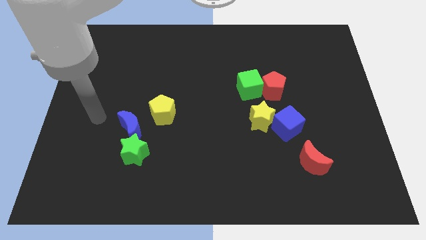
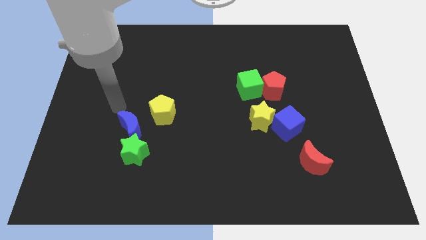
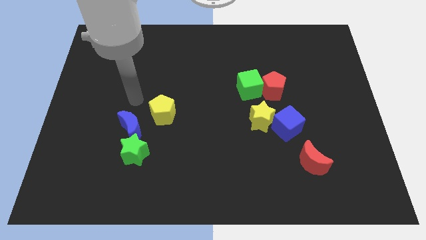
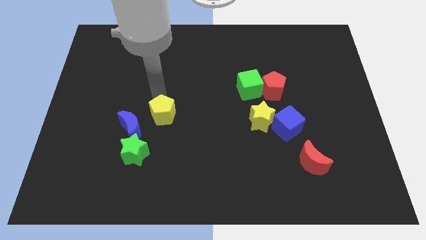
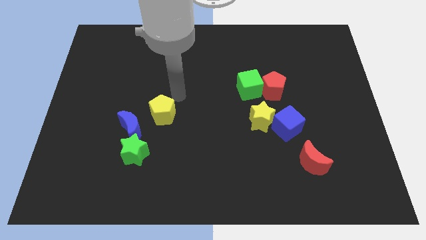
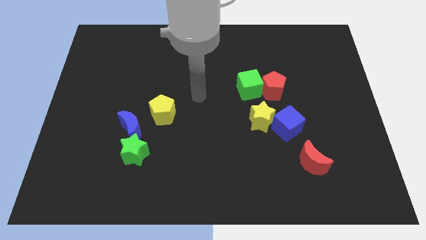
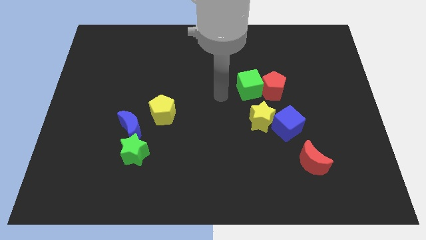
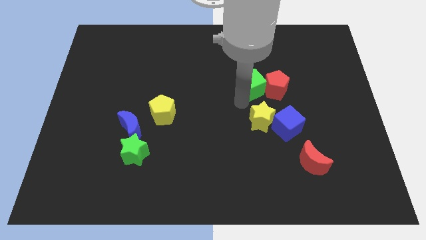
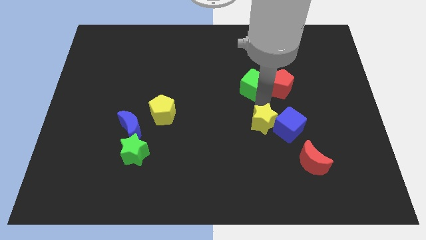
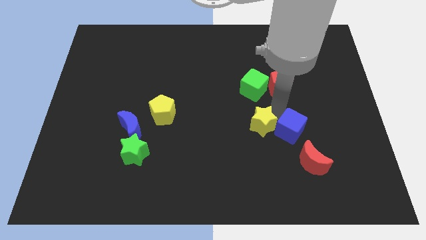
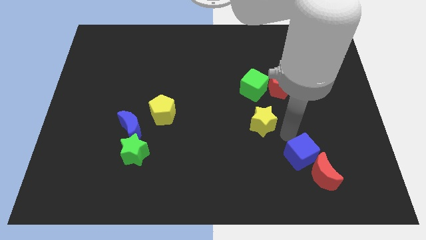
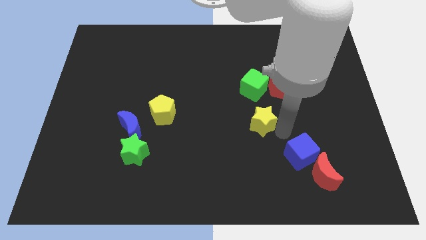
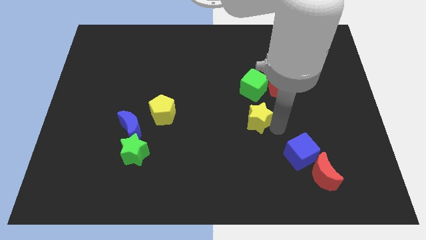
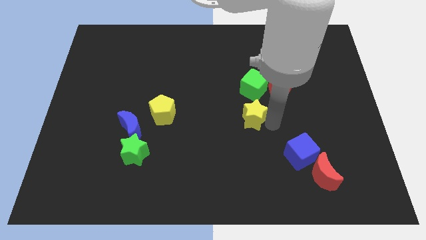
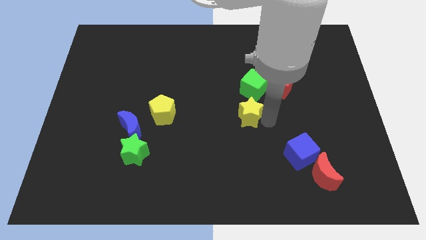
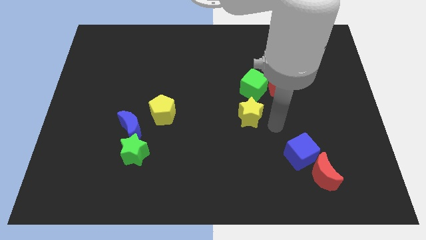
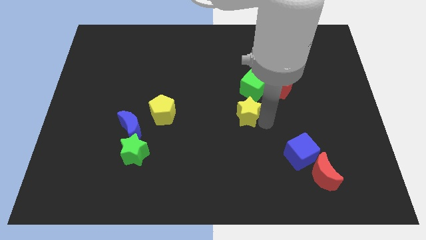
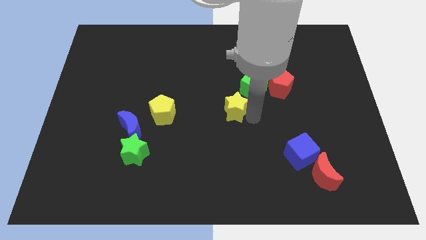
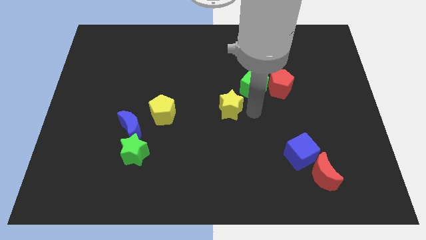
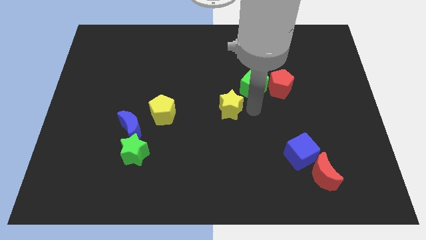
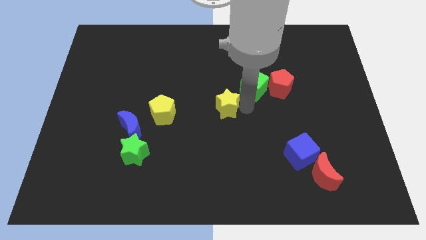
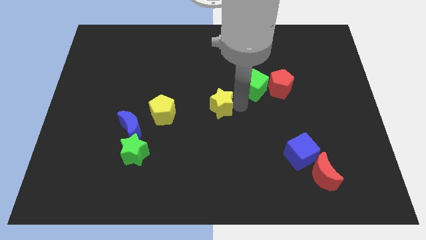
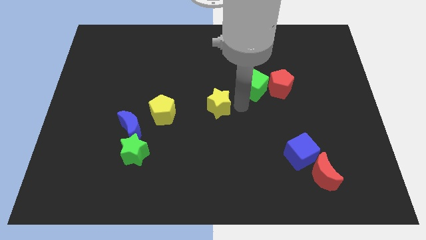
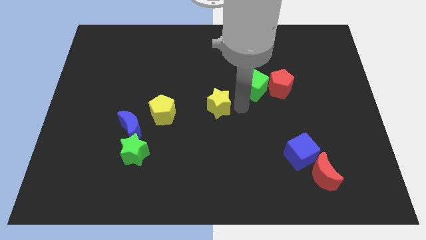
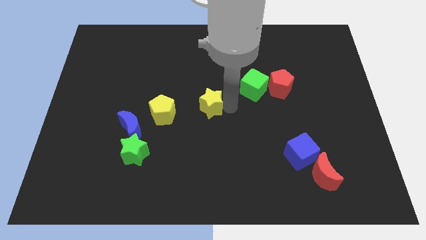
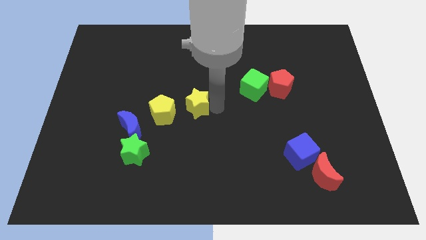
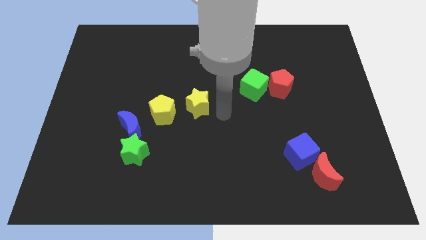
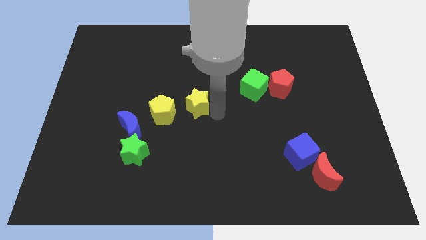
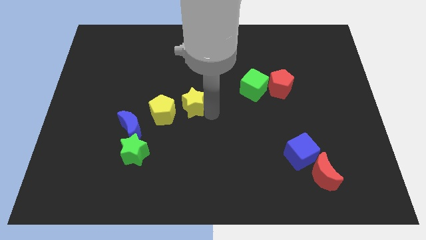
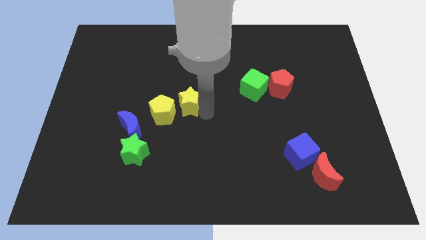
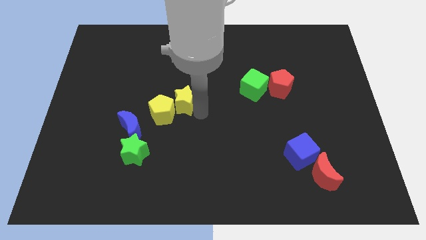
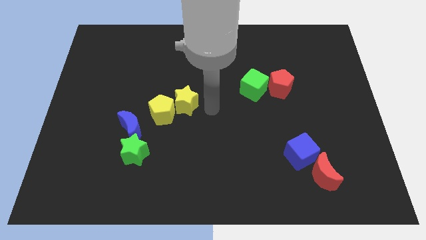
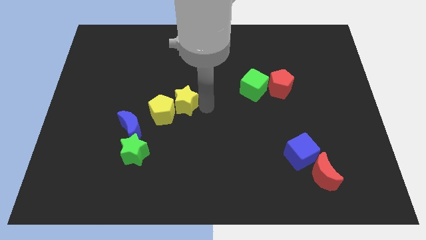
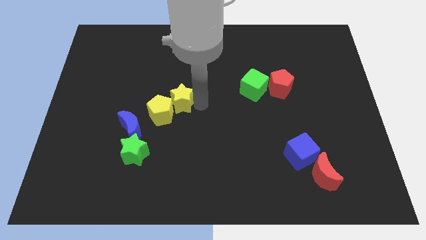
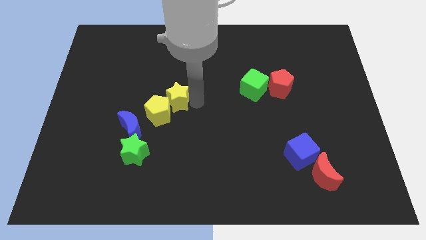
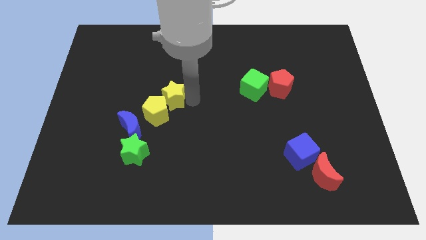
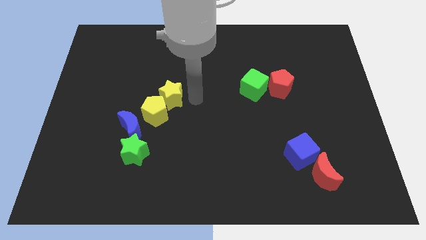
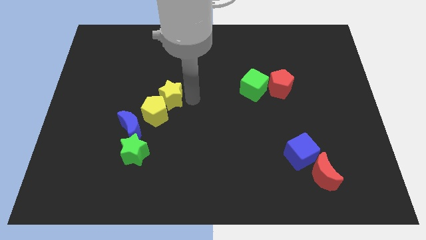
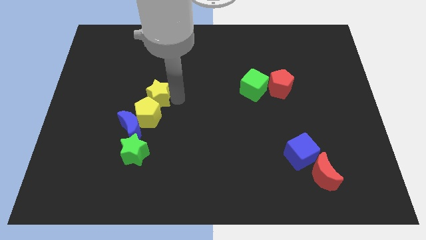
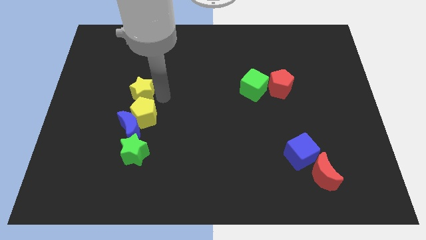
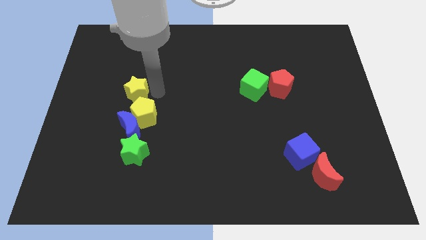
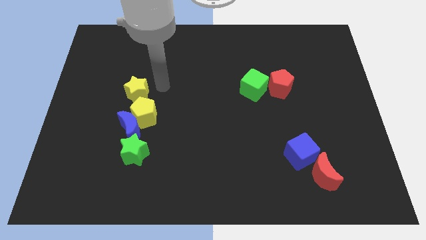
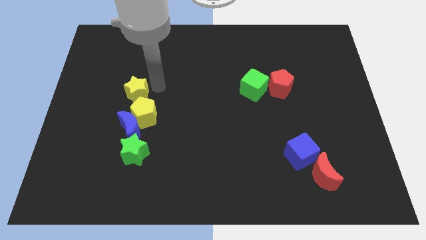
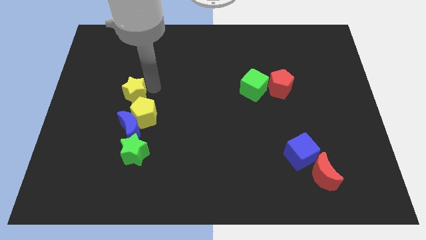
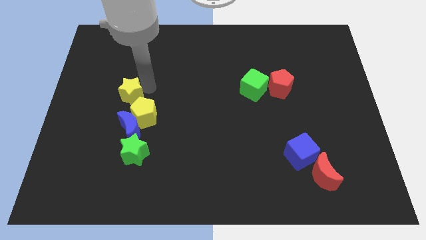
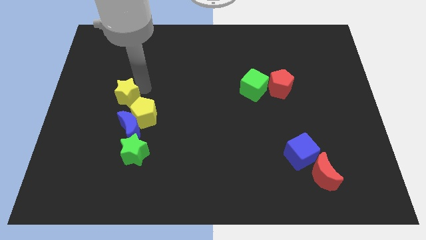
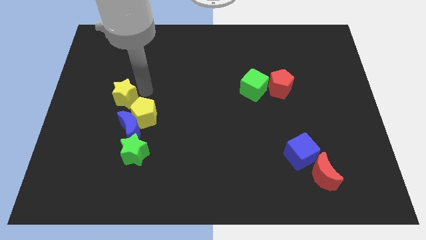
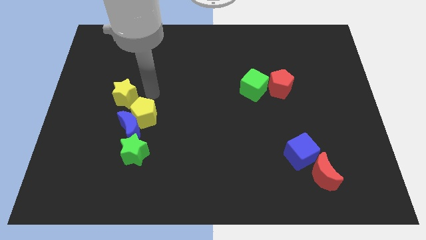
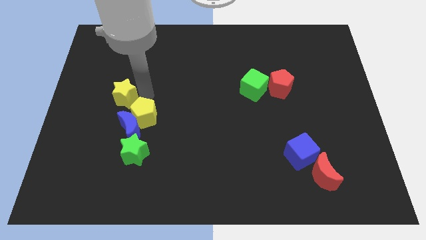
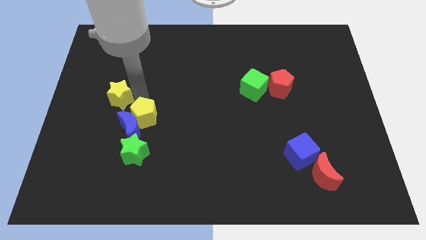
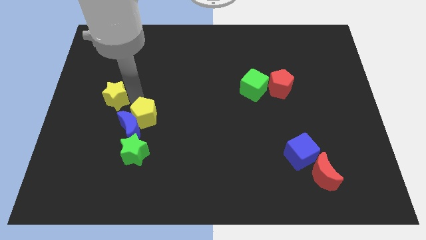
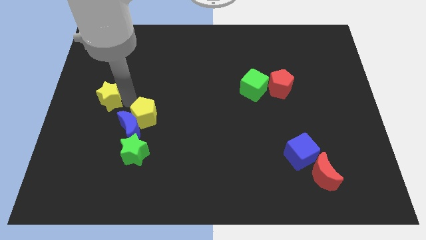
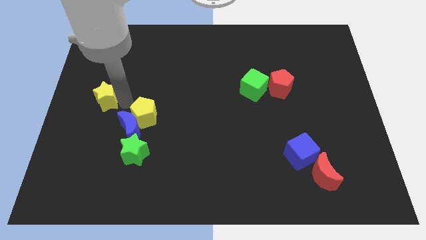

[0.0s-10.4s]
push the yellow star to the left side

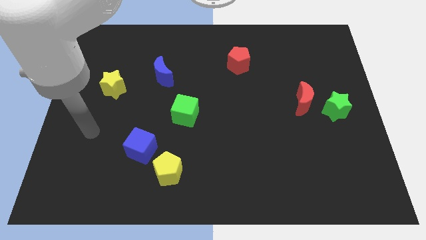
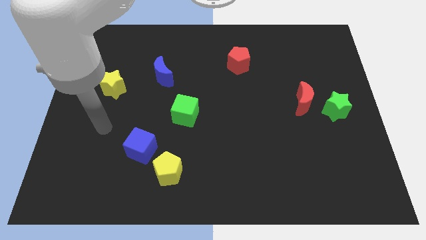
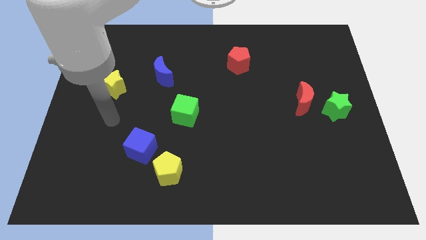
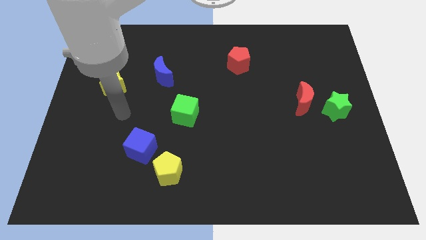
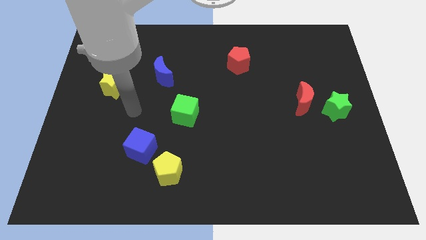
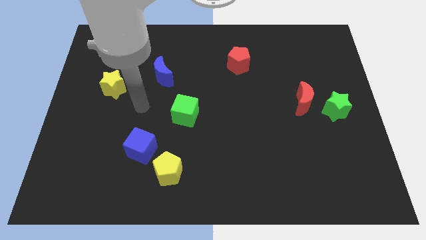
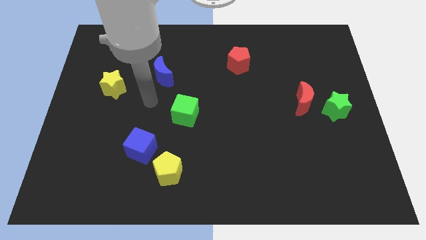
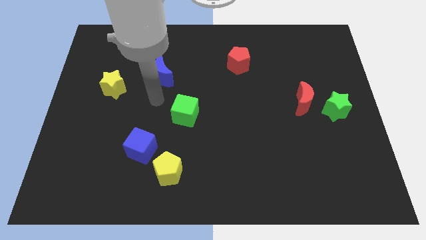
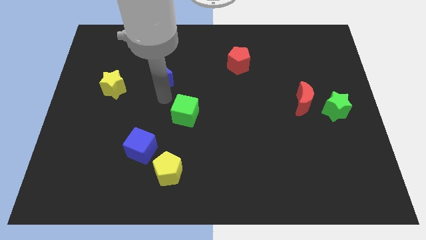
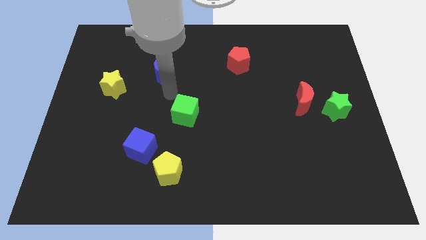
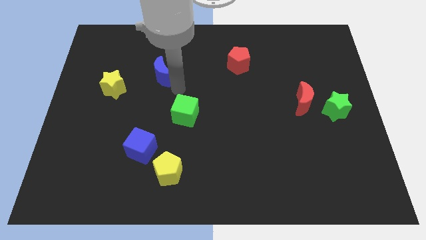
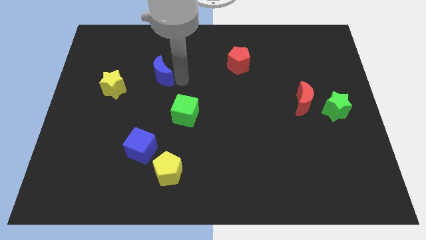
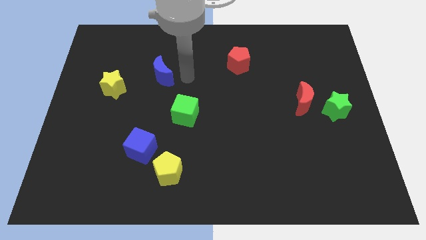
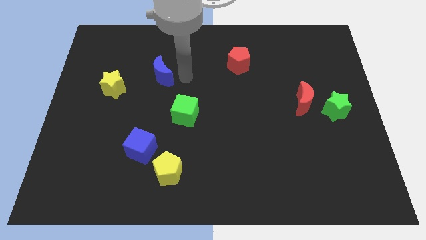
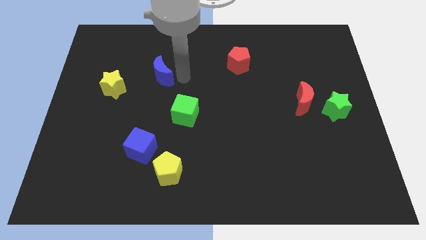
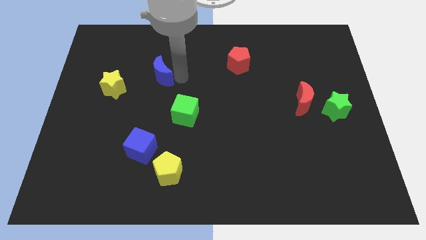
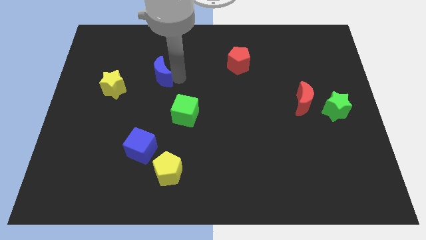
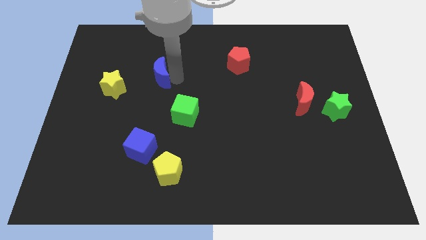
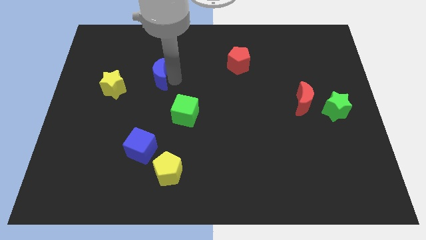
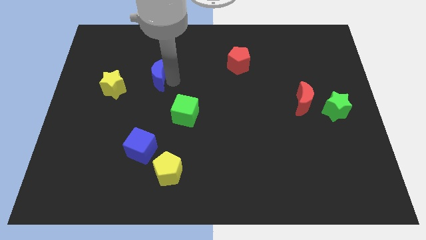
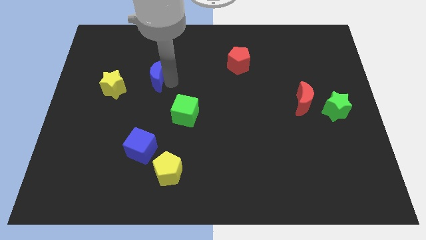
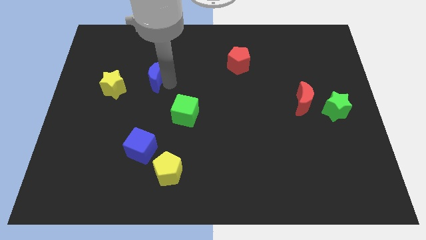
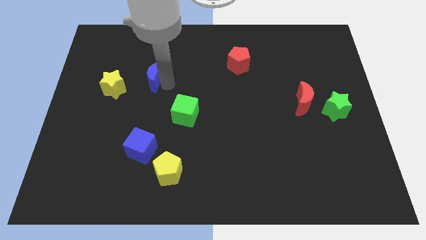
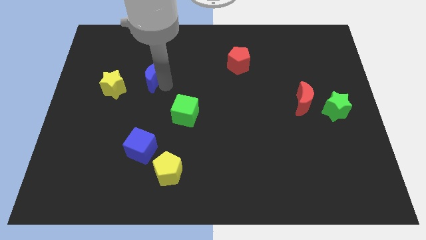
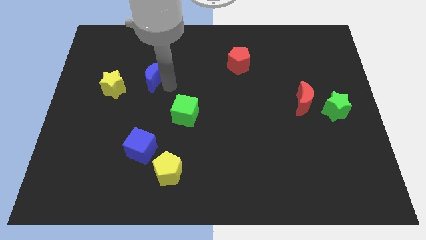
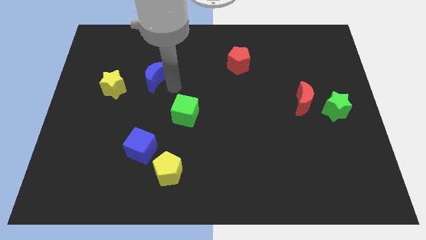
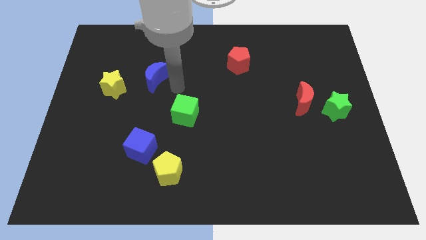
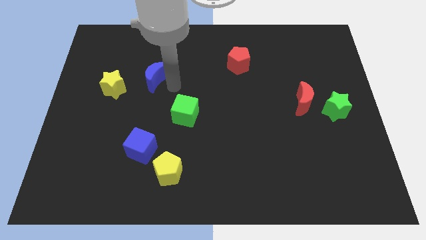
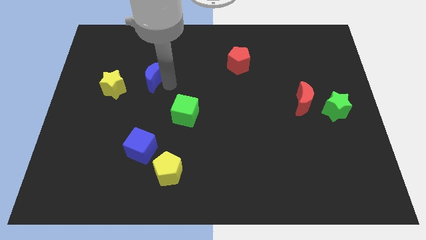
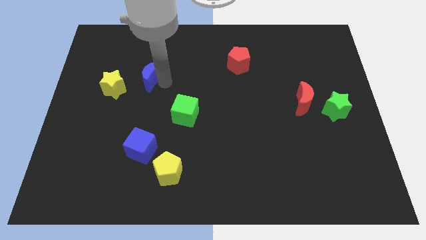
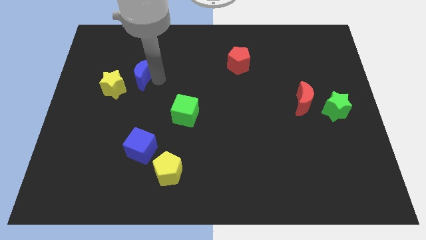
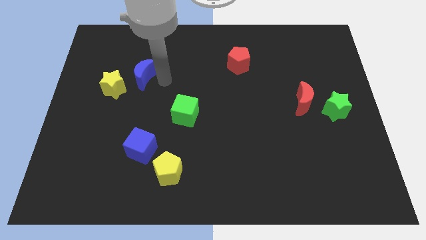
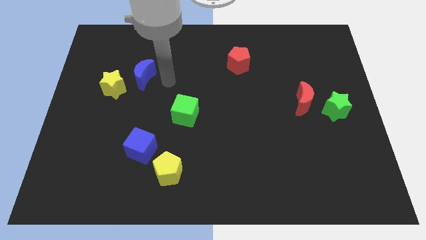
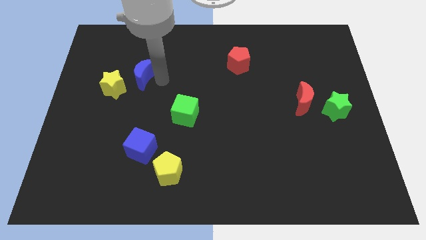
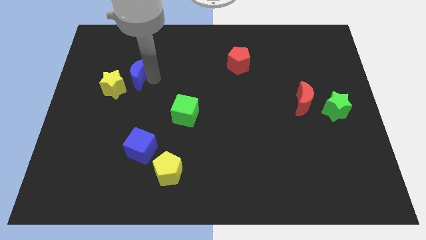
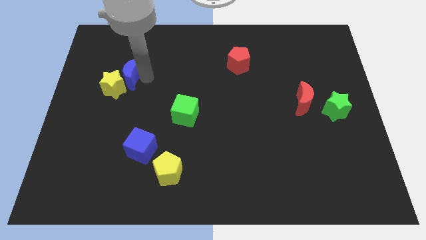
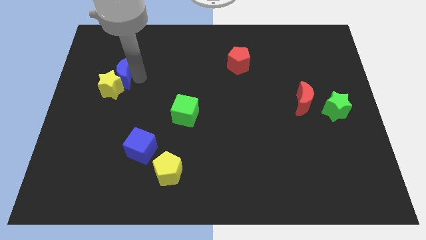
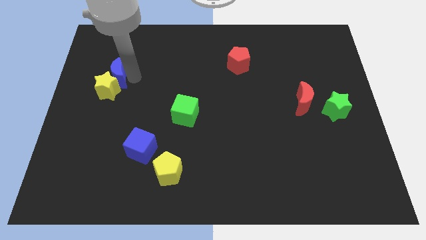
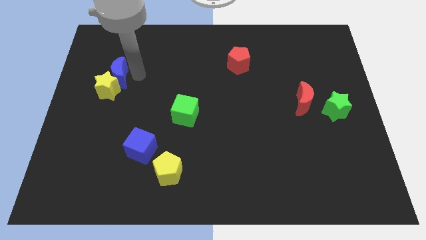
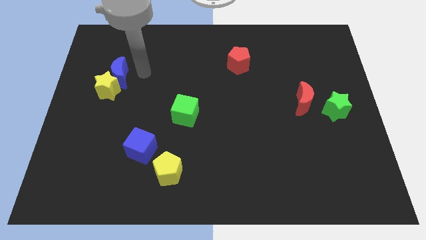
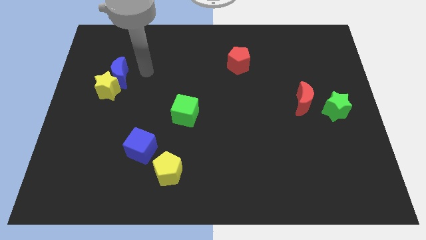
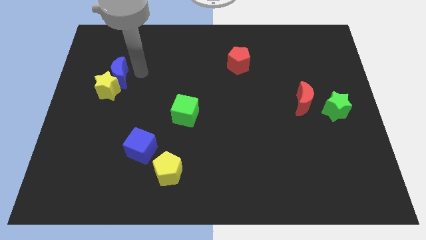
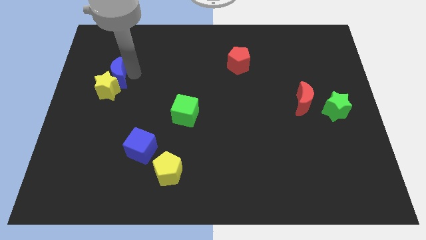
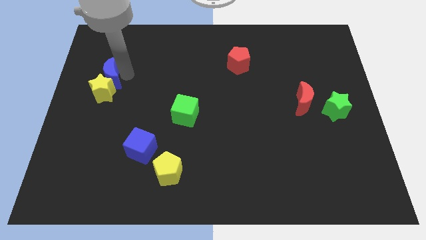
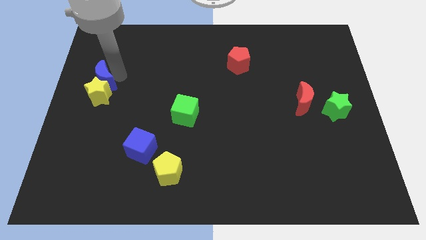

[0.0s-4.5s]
push the blue moon to the left side
